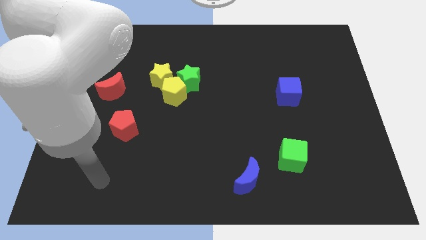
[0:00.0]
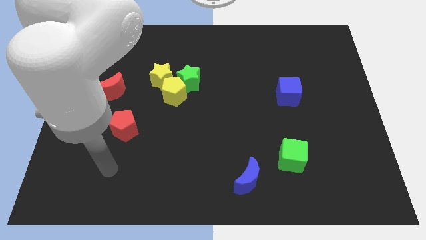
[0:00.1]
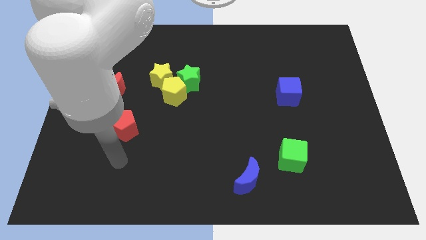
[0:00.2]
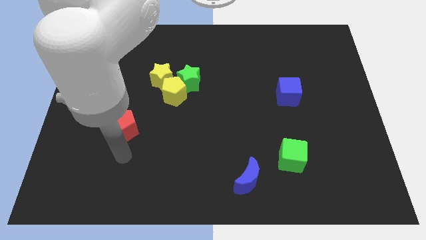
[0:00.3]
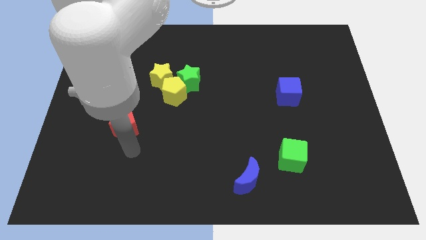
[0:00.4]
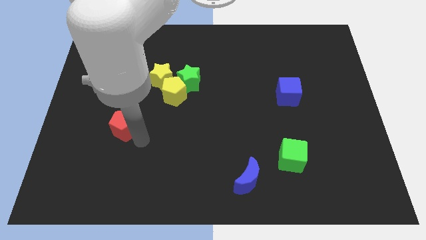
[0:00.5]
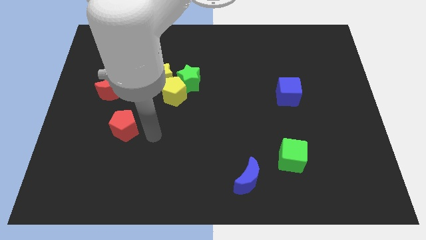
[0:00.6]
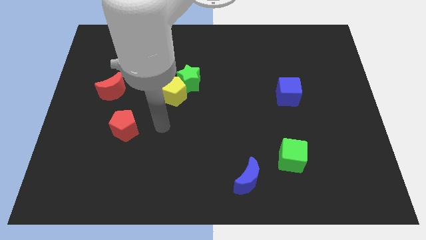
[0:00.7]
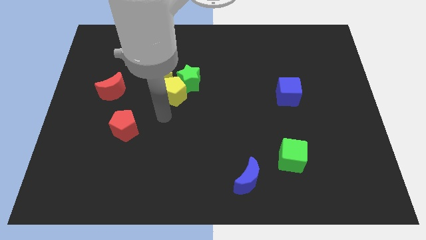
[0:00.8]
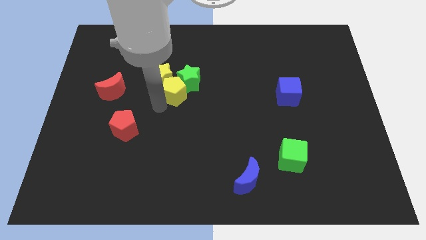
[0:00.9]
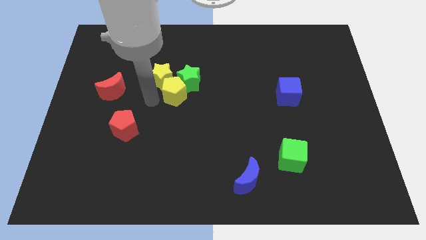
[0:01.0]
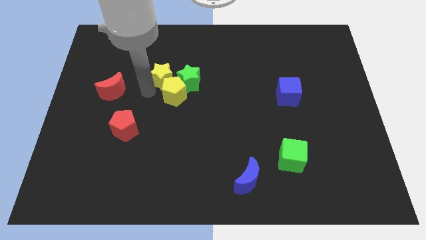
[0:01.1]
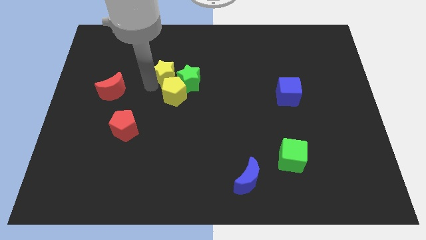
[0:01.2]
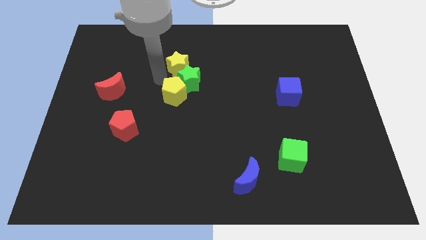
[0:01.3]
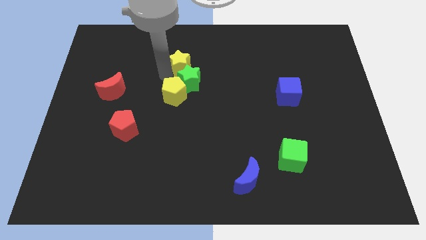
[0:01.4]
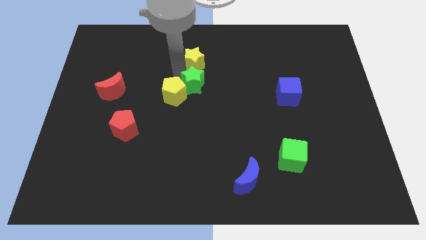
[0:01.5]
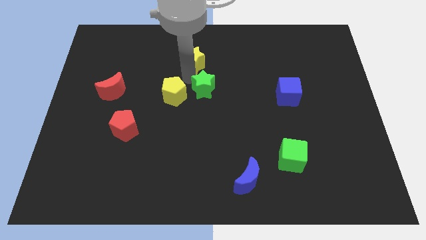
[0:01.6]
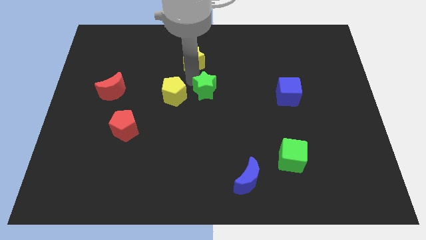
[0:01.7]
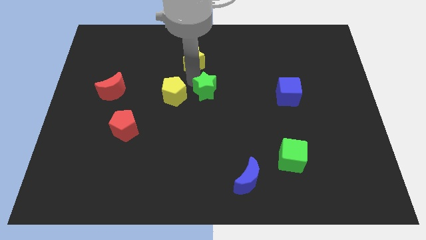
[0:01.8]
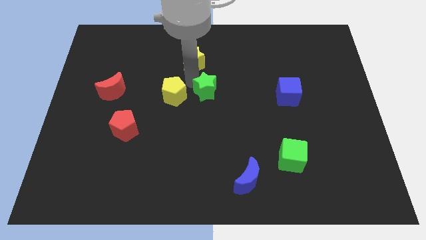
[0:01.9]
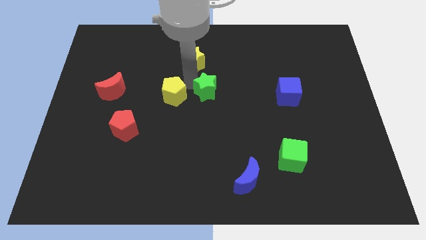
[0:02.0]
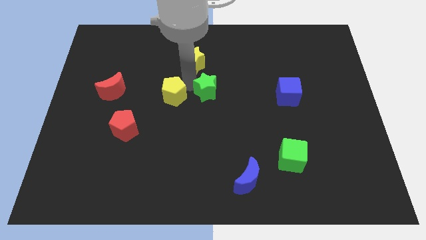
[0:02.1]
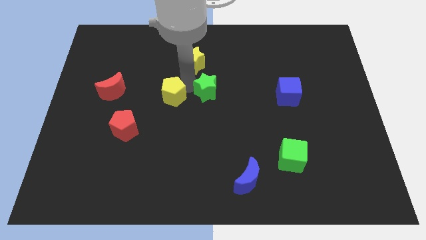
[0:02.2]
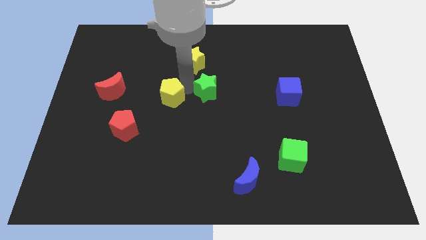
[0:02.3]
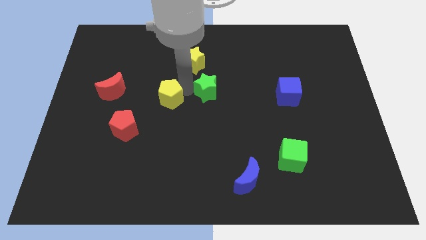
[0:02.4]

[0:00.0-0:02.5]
move the yellow pentagon away from the green star and yellow star

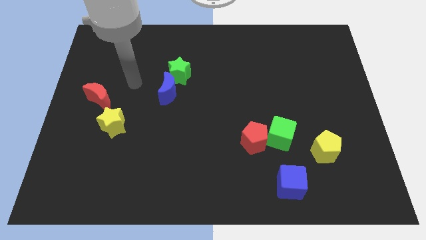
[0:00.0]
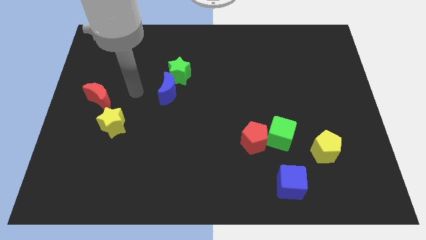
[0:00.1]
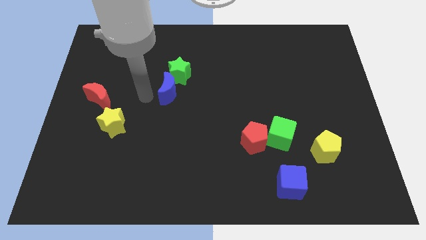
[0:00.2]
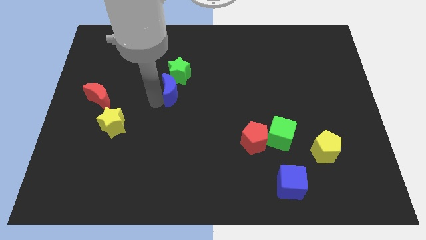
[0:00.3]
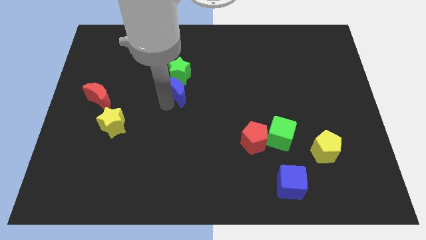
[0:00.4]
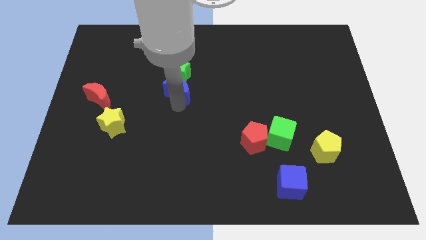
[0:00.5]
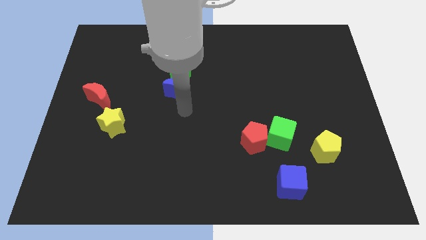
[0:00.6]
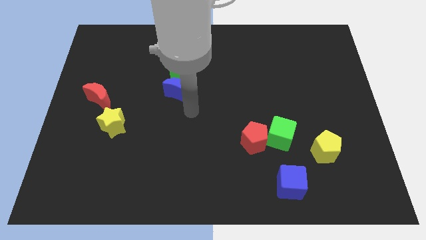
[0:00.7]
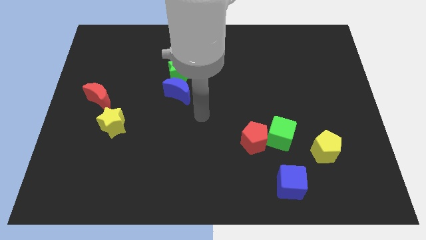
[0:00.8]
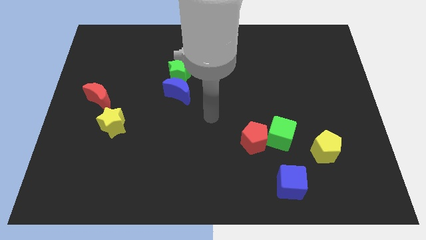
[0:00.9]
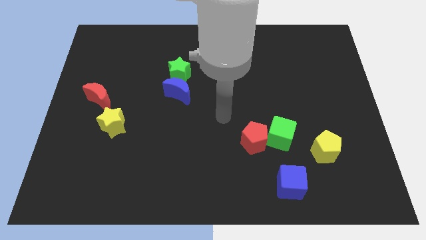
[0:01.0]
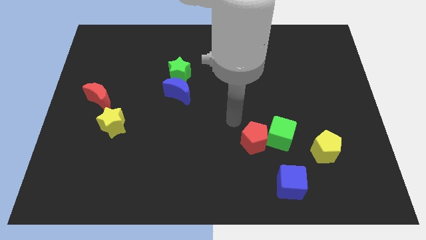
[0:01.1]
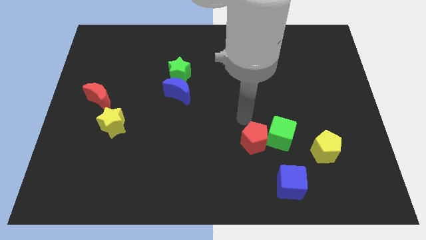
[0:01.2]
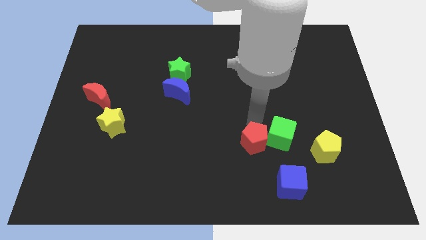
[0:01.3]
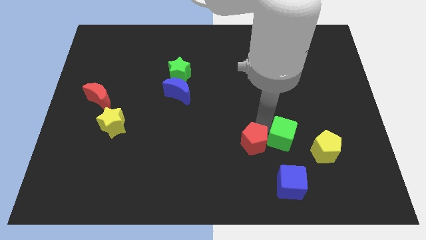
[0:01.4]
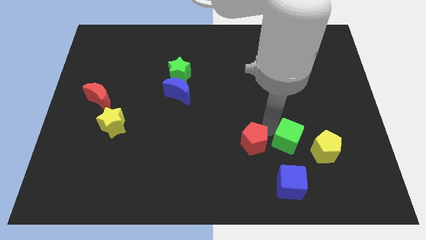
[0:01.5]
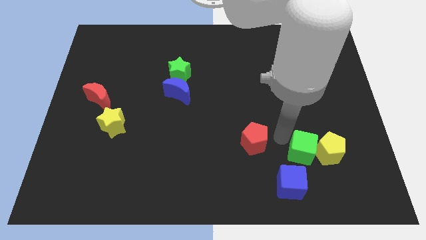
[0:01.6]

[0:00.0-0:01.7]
separate the red pentagon from the green cube

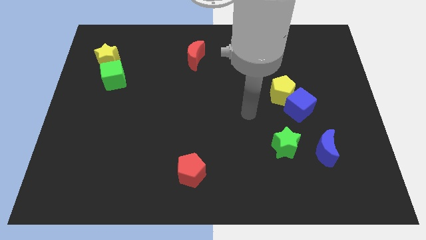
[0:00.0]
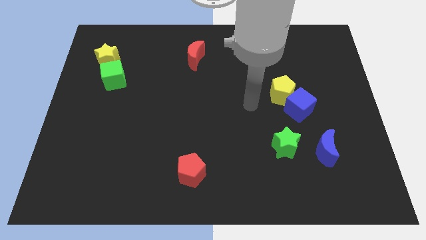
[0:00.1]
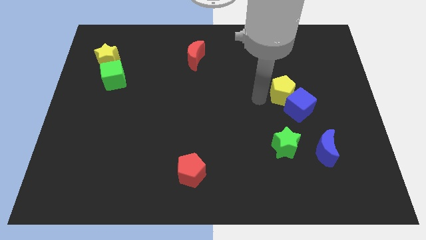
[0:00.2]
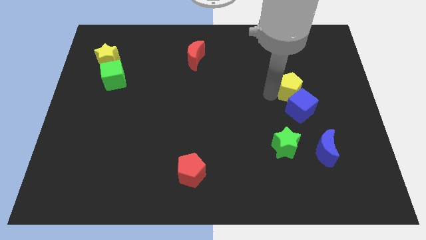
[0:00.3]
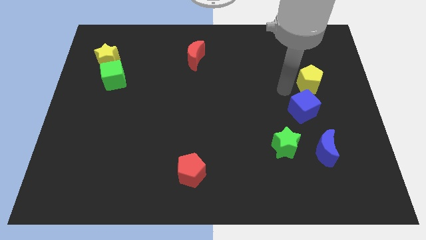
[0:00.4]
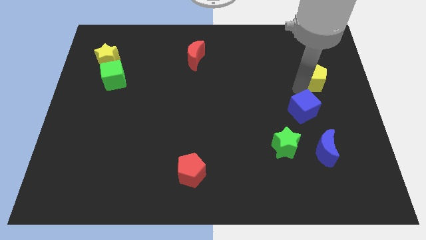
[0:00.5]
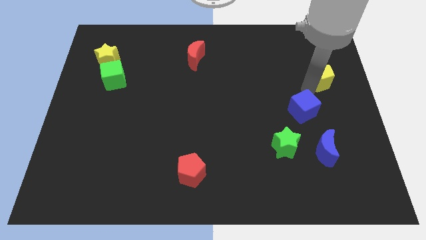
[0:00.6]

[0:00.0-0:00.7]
move the blue cube away from the yellow pentagon

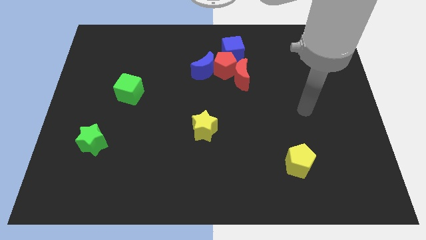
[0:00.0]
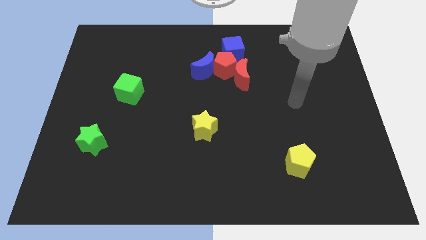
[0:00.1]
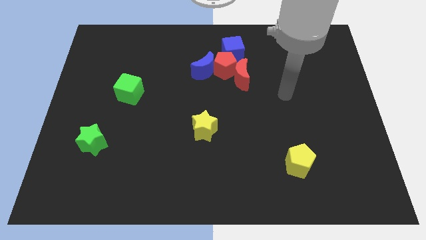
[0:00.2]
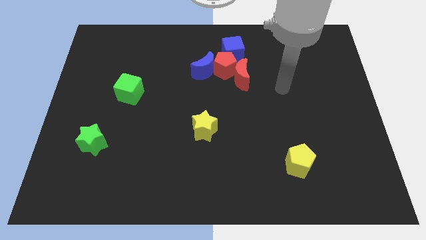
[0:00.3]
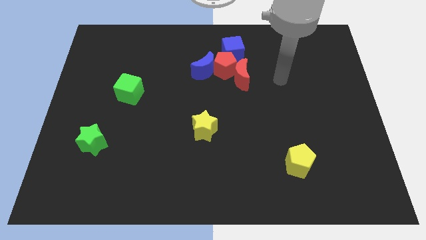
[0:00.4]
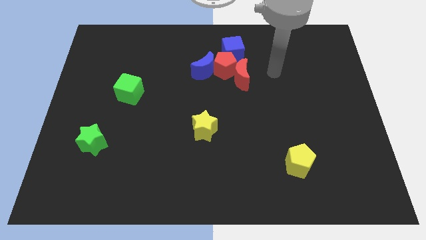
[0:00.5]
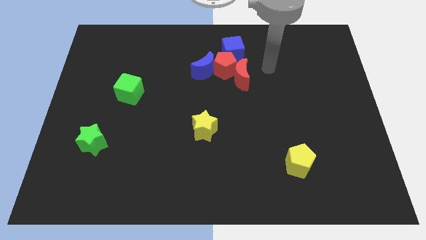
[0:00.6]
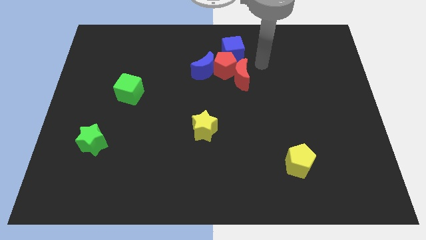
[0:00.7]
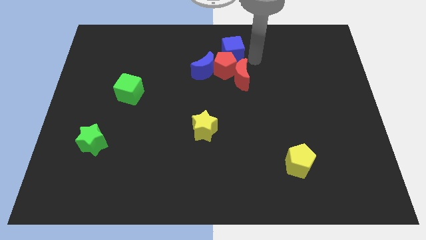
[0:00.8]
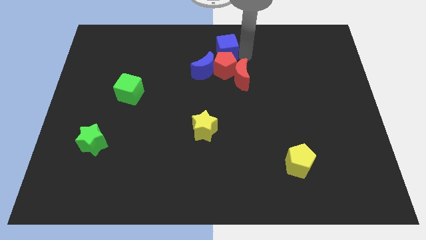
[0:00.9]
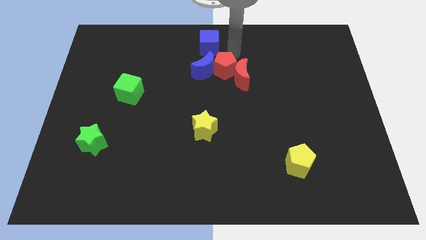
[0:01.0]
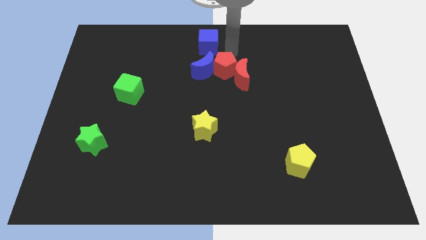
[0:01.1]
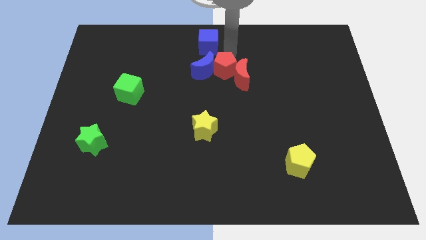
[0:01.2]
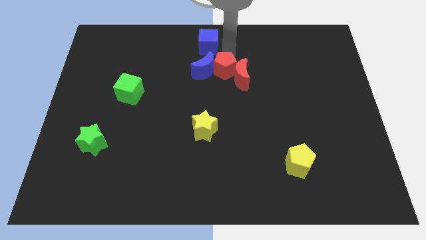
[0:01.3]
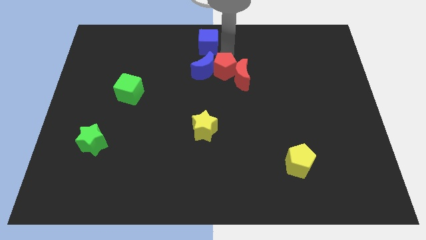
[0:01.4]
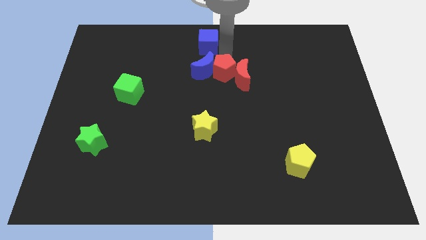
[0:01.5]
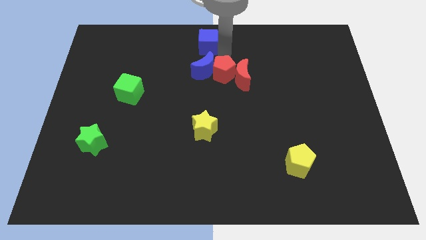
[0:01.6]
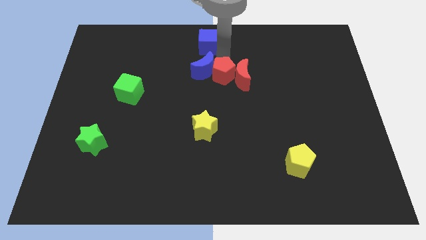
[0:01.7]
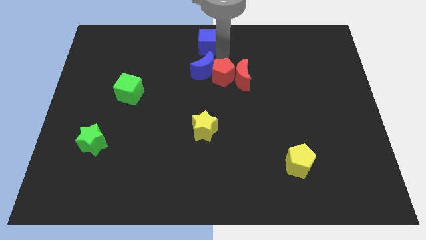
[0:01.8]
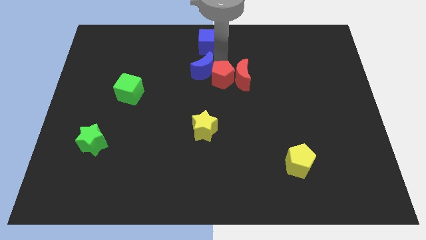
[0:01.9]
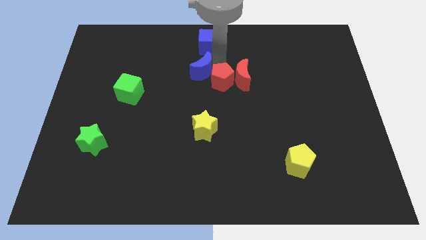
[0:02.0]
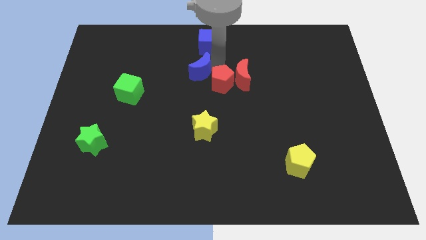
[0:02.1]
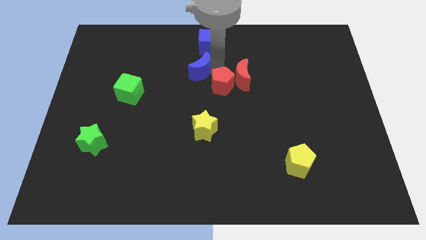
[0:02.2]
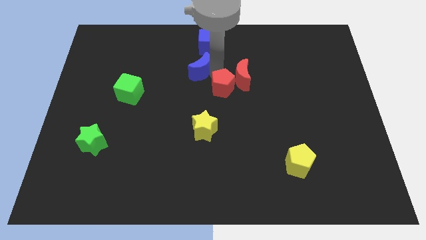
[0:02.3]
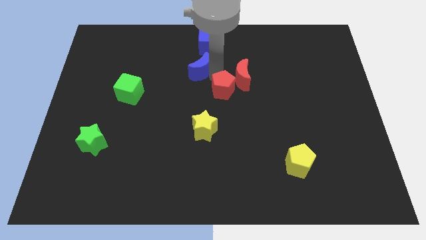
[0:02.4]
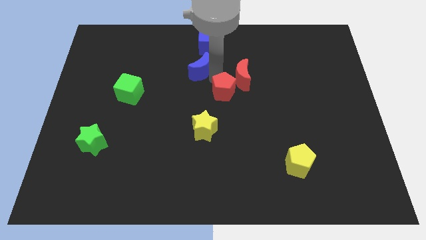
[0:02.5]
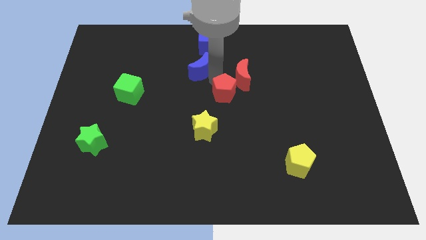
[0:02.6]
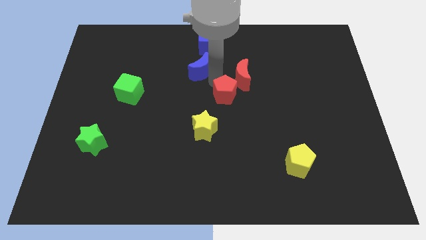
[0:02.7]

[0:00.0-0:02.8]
pull the red pentagon apart from the group

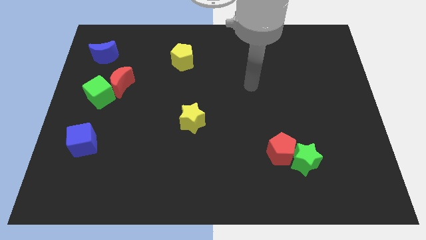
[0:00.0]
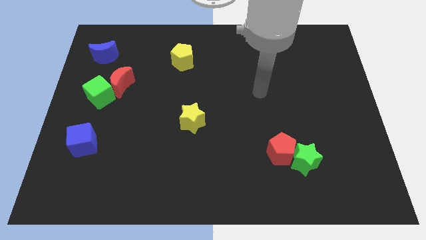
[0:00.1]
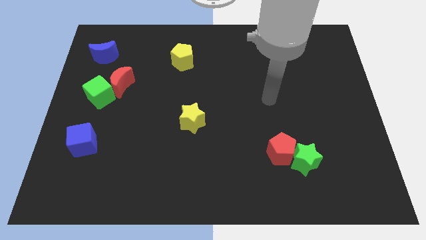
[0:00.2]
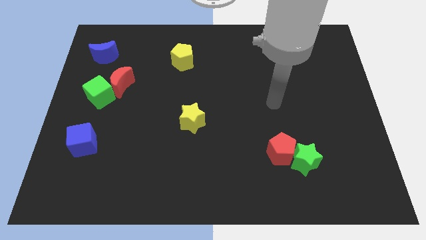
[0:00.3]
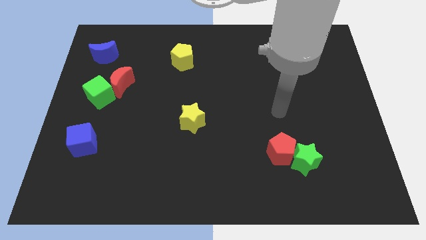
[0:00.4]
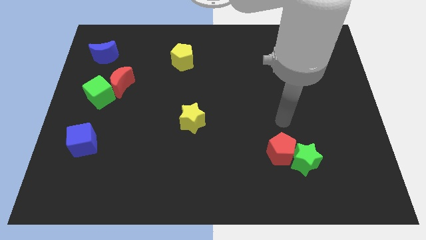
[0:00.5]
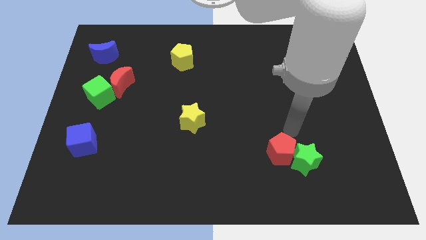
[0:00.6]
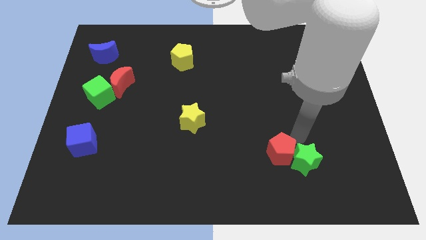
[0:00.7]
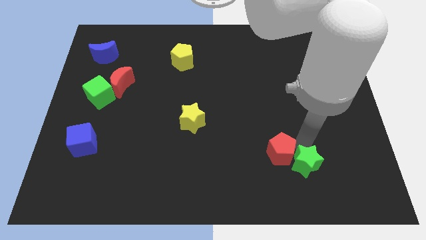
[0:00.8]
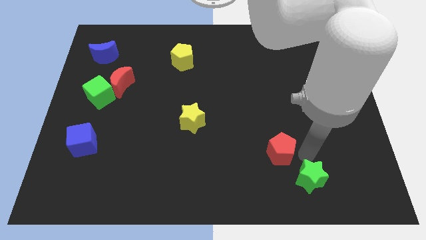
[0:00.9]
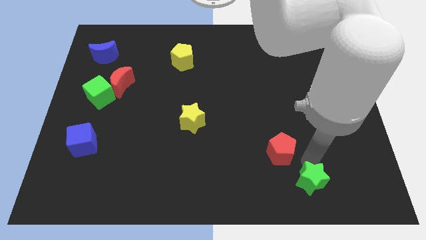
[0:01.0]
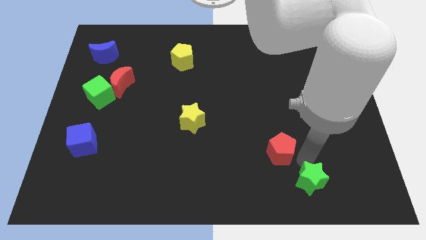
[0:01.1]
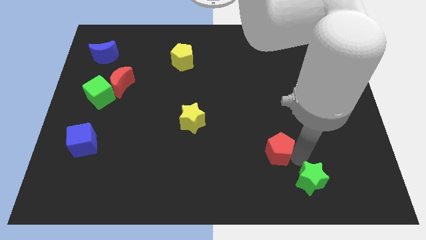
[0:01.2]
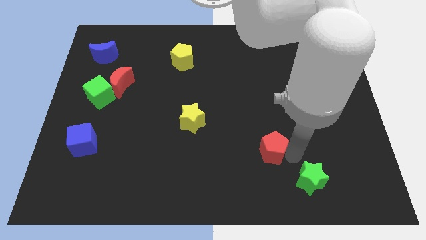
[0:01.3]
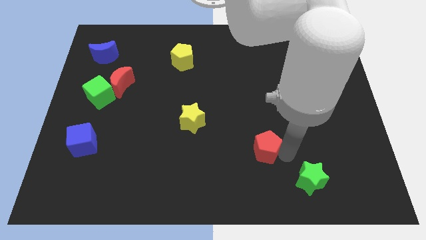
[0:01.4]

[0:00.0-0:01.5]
separate the red pentagon from the green star

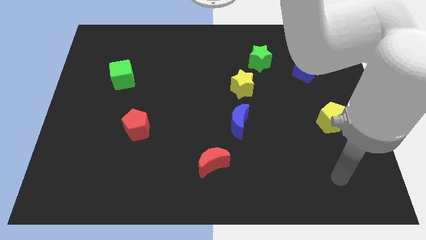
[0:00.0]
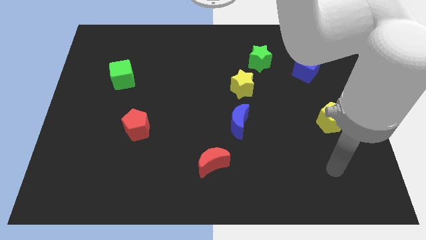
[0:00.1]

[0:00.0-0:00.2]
pull the green star apart from the yellow star
